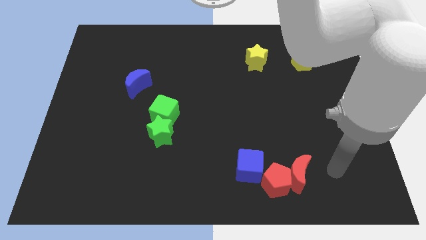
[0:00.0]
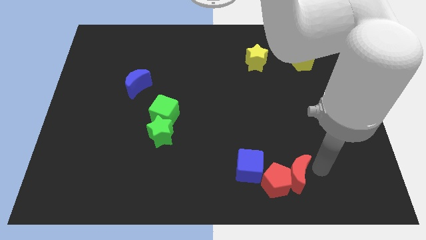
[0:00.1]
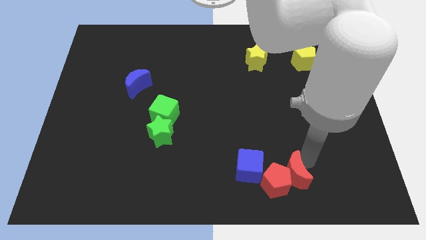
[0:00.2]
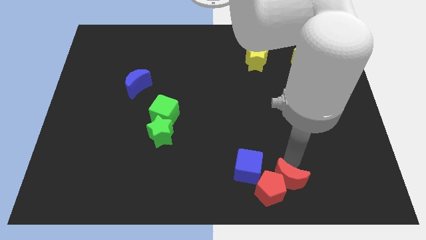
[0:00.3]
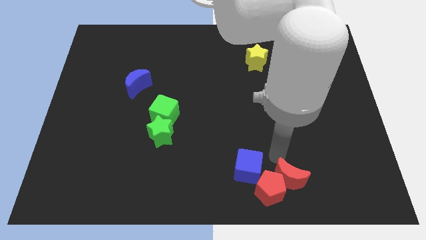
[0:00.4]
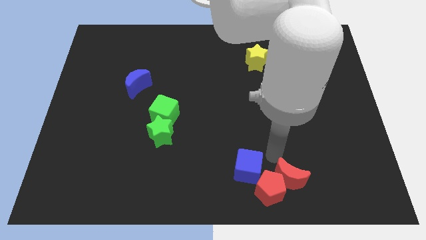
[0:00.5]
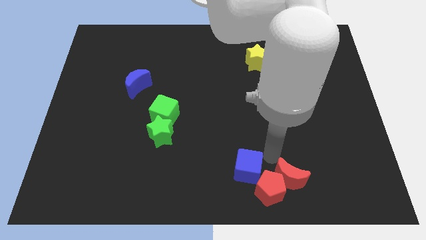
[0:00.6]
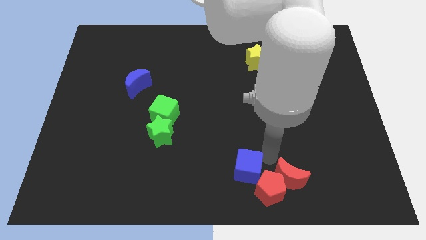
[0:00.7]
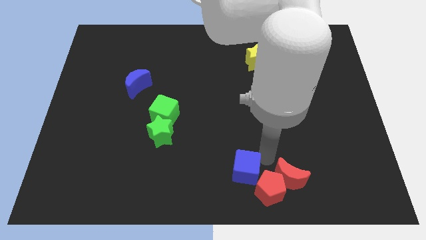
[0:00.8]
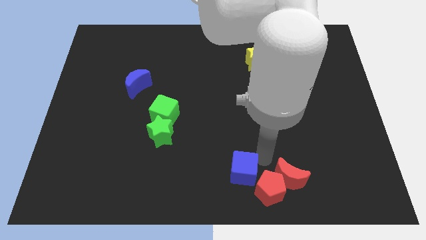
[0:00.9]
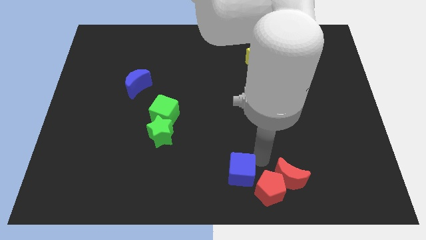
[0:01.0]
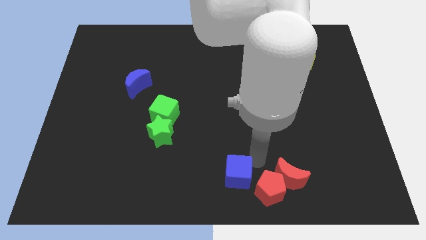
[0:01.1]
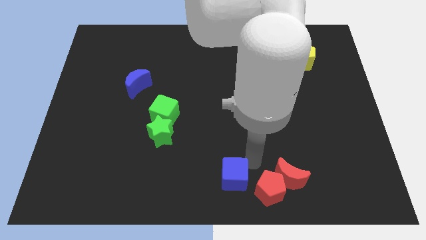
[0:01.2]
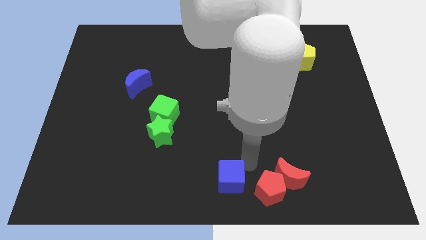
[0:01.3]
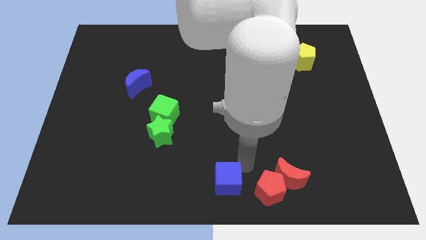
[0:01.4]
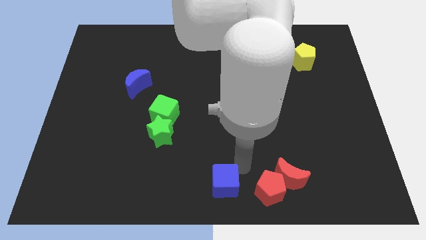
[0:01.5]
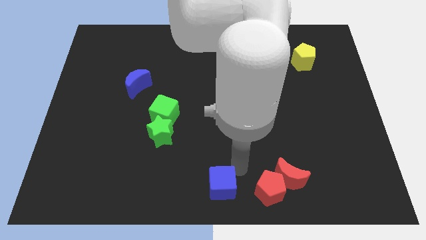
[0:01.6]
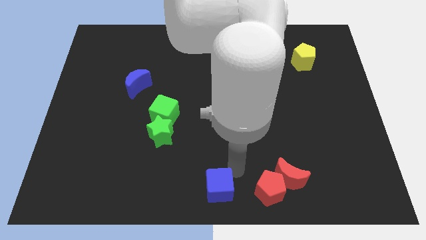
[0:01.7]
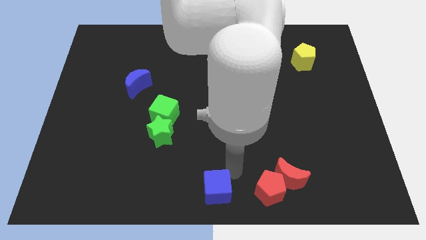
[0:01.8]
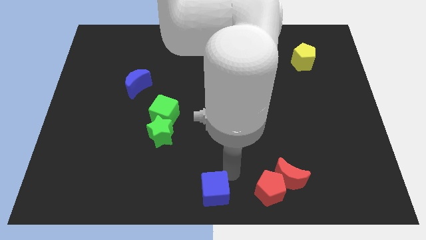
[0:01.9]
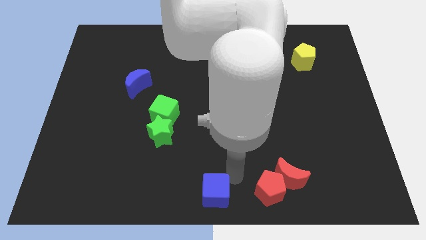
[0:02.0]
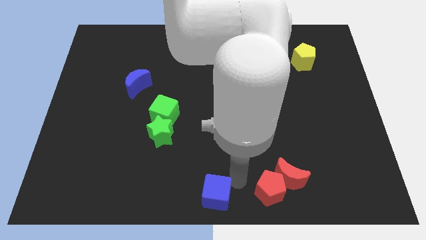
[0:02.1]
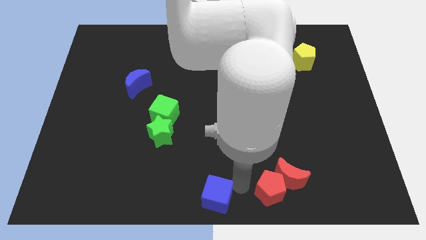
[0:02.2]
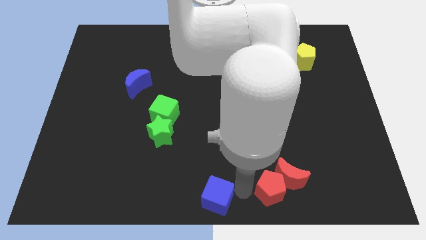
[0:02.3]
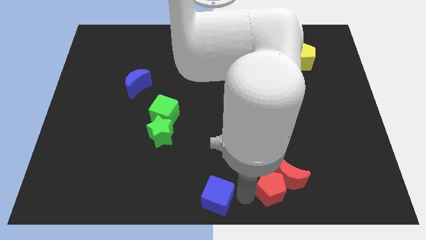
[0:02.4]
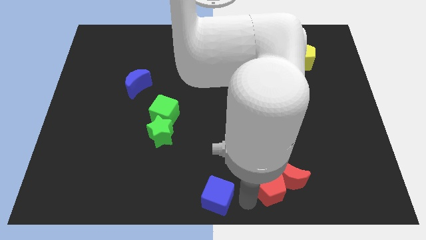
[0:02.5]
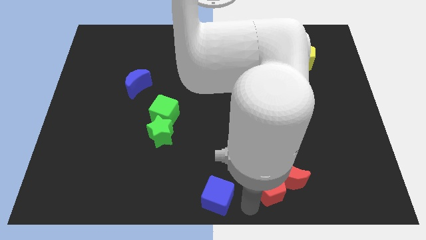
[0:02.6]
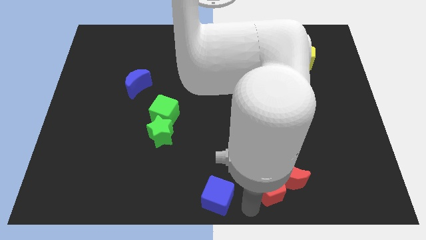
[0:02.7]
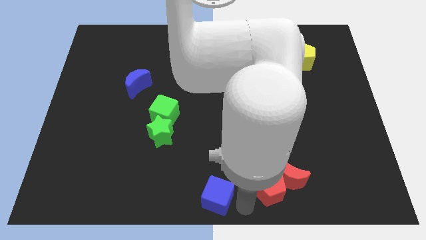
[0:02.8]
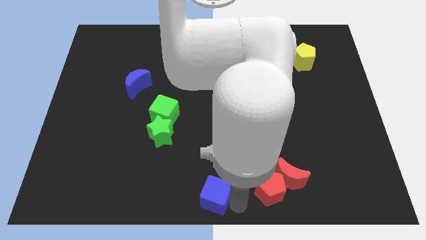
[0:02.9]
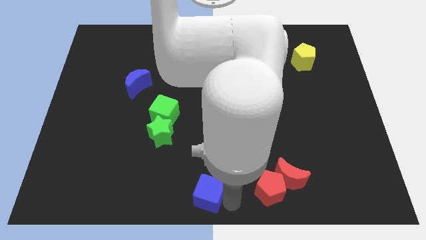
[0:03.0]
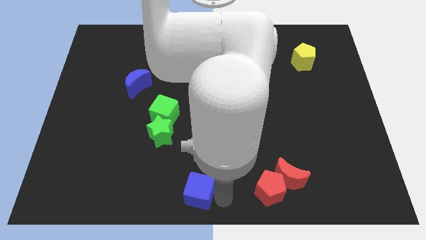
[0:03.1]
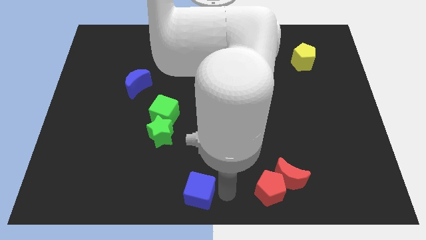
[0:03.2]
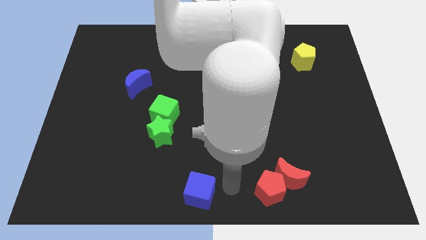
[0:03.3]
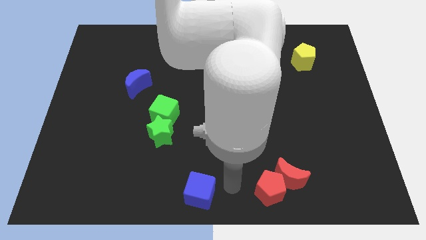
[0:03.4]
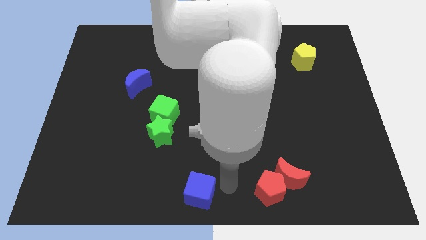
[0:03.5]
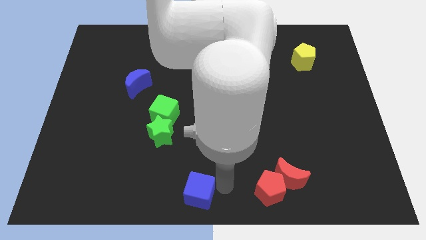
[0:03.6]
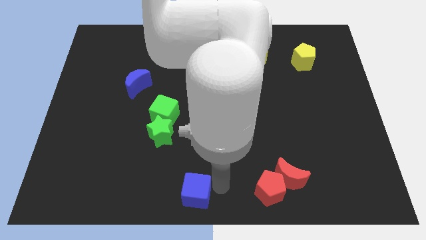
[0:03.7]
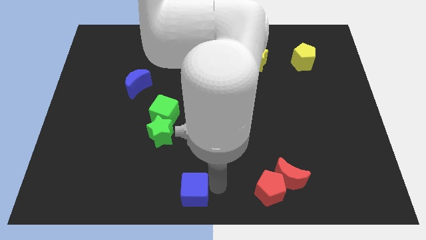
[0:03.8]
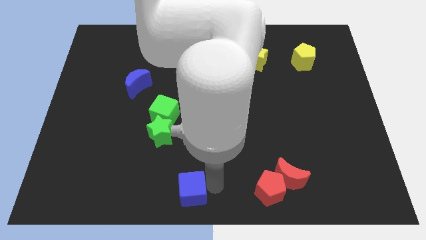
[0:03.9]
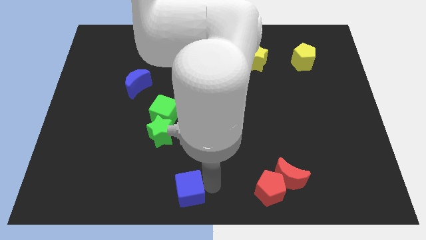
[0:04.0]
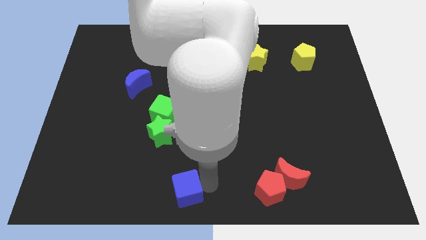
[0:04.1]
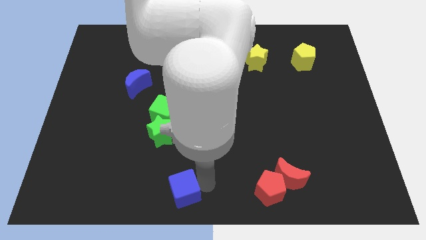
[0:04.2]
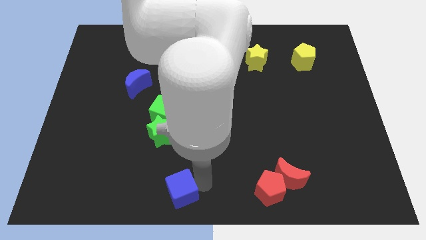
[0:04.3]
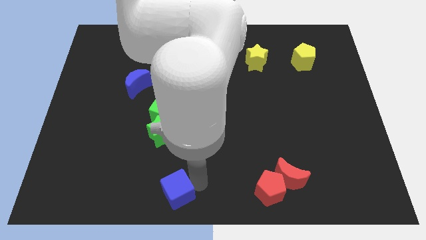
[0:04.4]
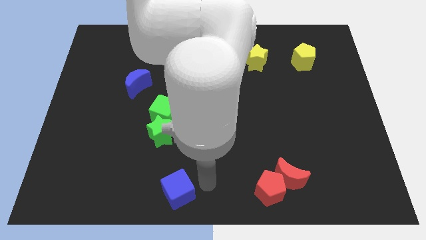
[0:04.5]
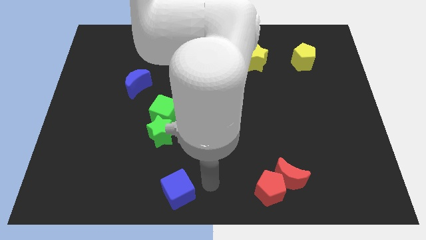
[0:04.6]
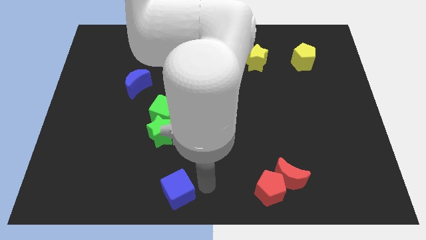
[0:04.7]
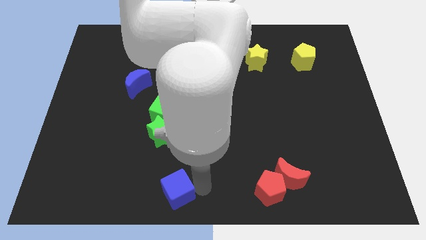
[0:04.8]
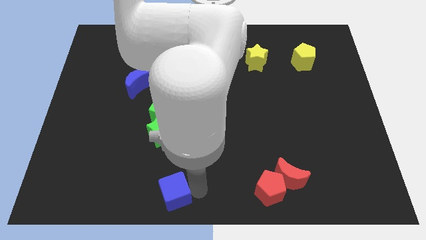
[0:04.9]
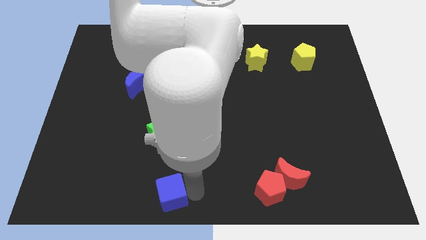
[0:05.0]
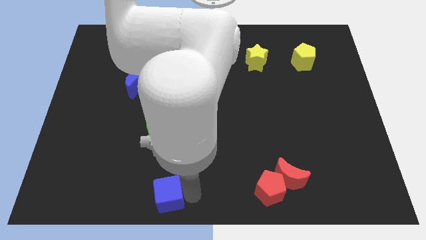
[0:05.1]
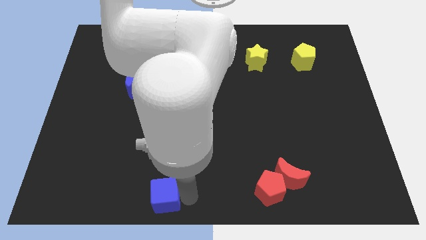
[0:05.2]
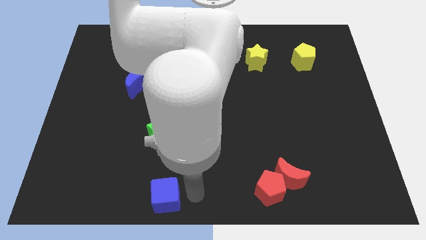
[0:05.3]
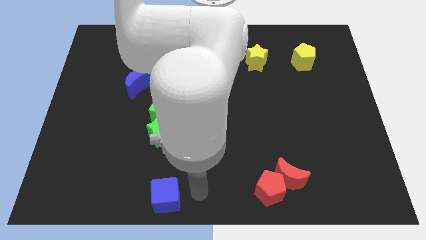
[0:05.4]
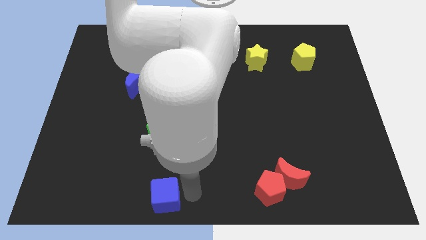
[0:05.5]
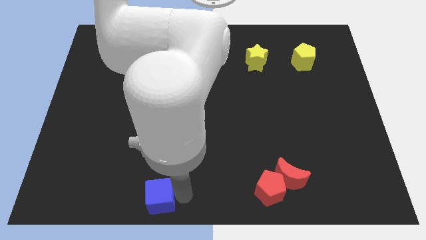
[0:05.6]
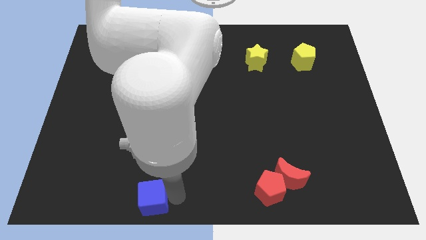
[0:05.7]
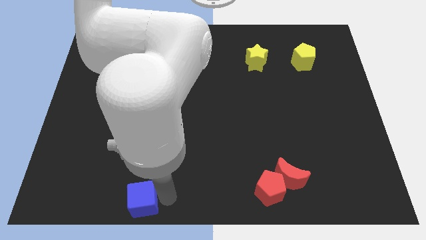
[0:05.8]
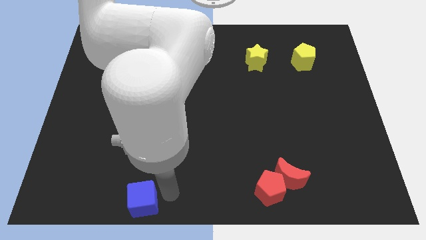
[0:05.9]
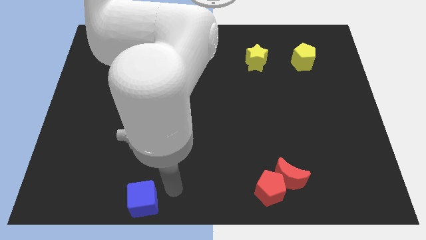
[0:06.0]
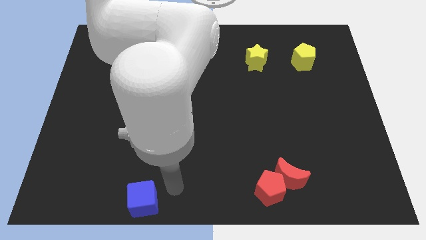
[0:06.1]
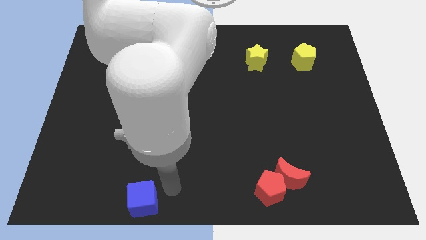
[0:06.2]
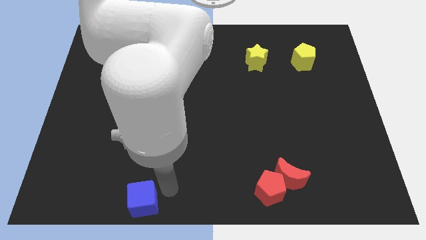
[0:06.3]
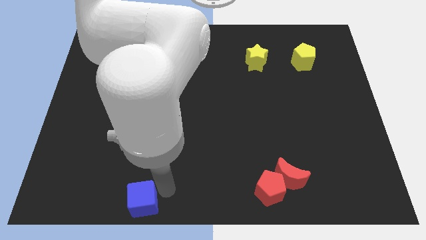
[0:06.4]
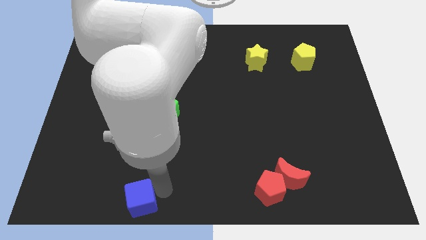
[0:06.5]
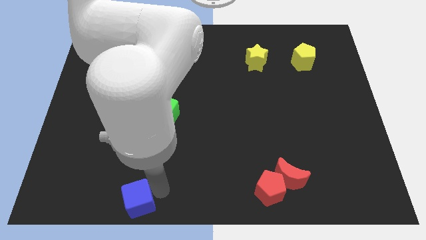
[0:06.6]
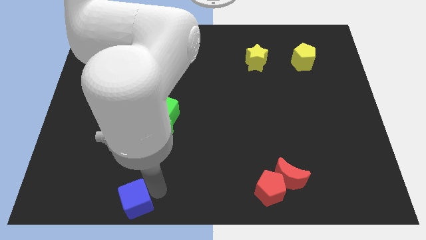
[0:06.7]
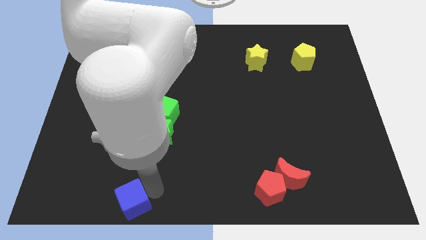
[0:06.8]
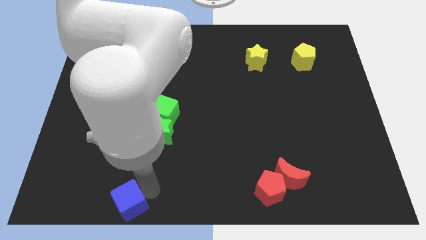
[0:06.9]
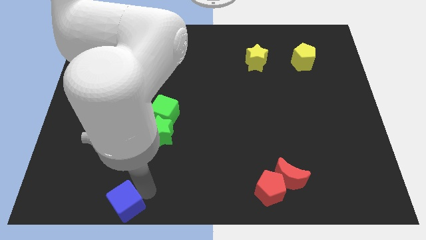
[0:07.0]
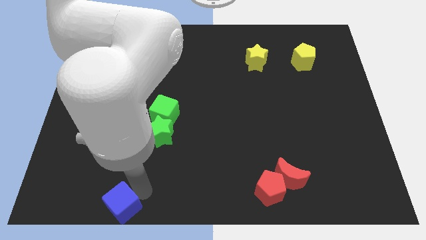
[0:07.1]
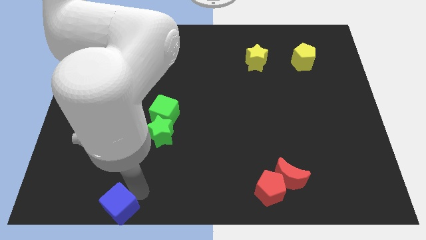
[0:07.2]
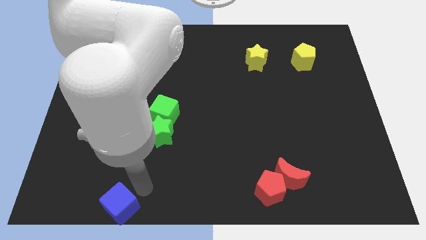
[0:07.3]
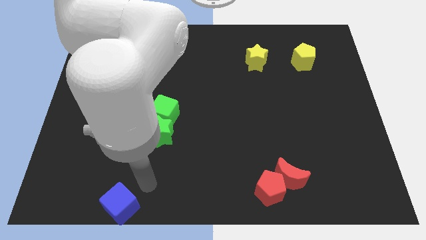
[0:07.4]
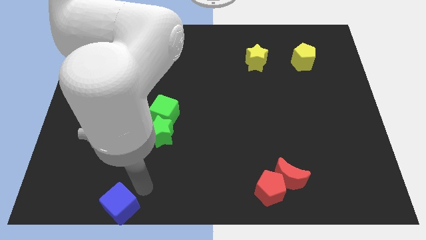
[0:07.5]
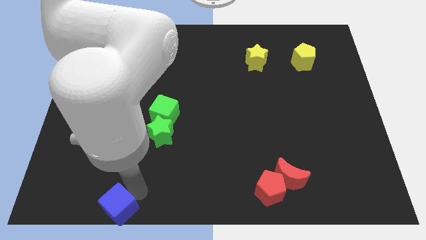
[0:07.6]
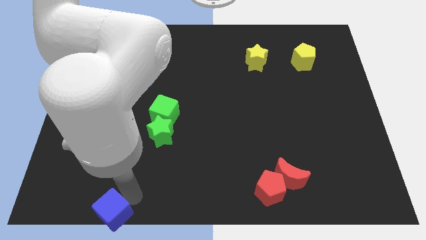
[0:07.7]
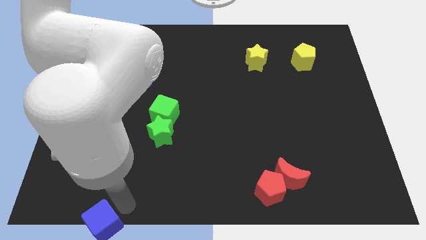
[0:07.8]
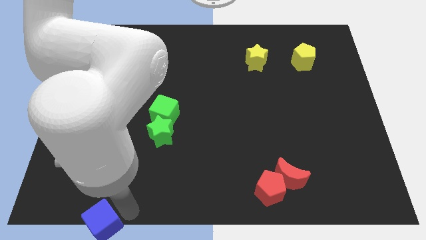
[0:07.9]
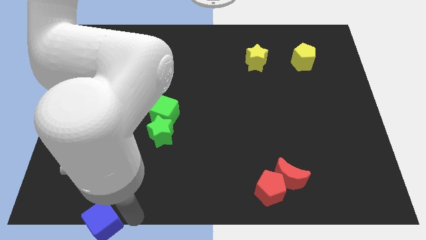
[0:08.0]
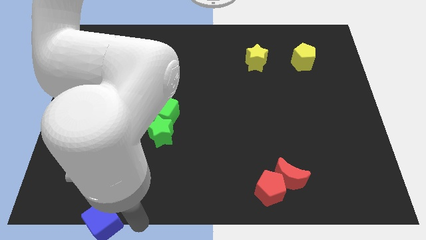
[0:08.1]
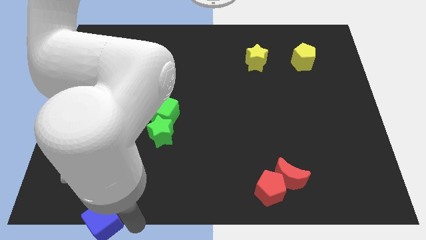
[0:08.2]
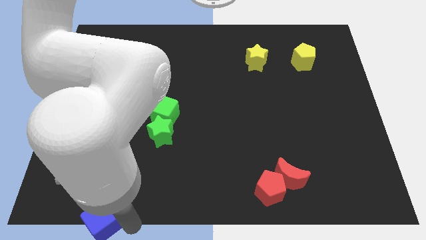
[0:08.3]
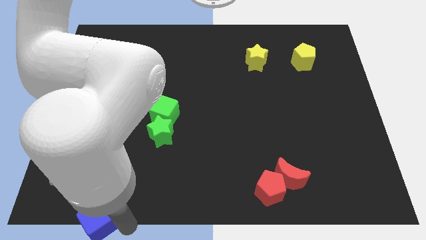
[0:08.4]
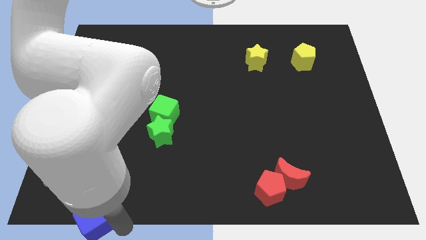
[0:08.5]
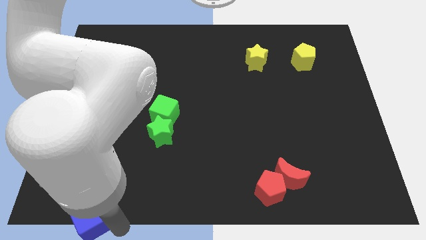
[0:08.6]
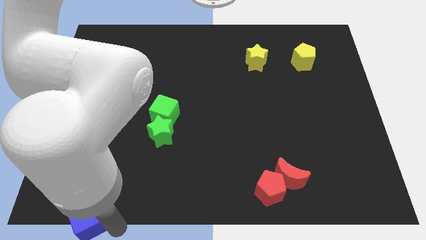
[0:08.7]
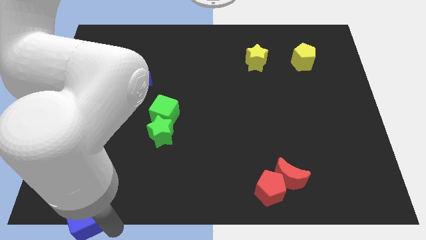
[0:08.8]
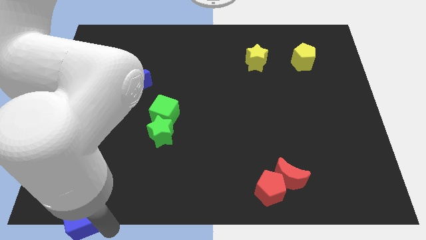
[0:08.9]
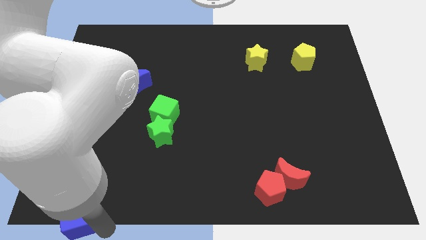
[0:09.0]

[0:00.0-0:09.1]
put the blue cube to the lower left corner
